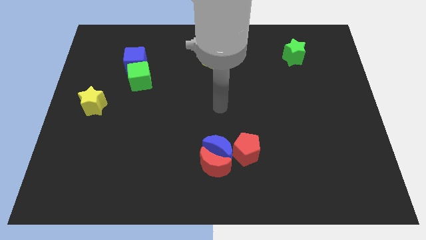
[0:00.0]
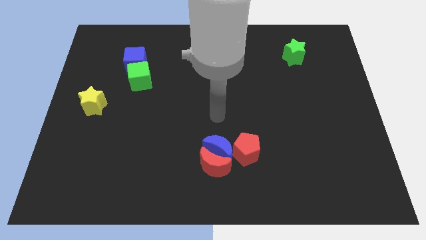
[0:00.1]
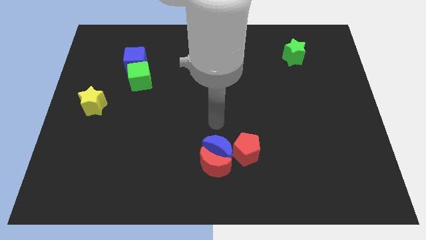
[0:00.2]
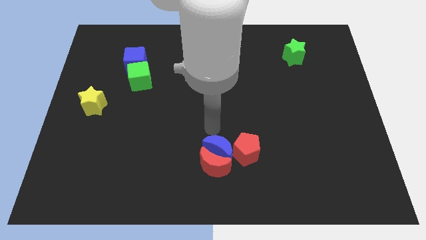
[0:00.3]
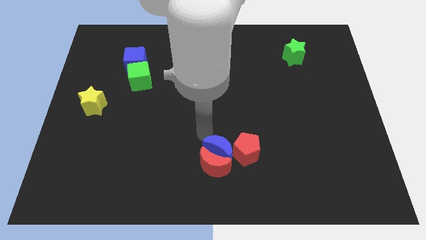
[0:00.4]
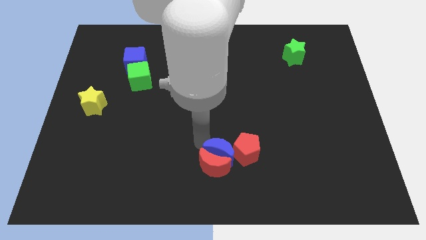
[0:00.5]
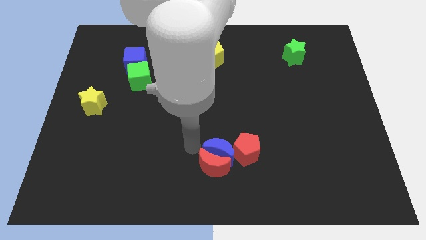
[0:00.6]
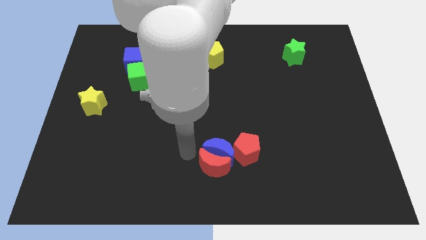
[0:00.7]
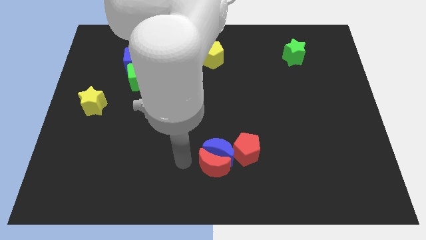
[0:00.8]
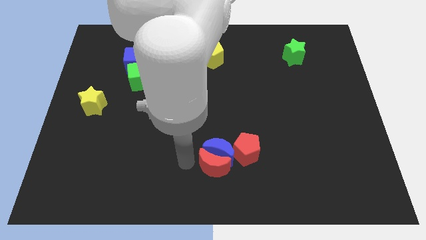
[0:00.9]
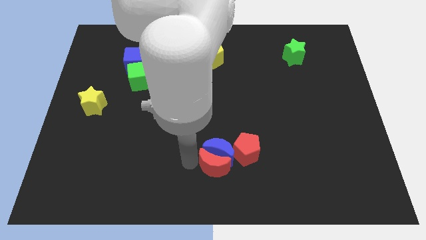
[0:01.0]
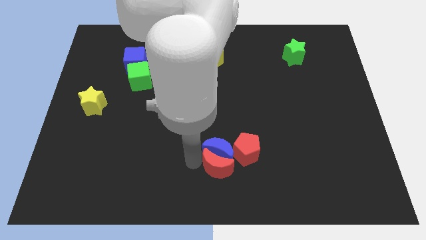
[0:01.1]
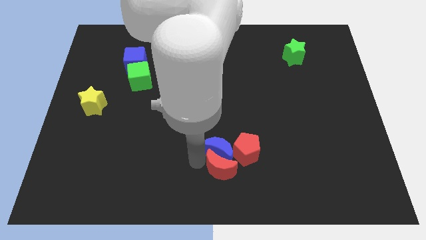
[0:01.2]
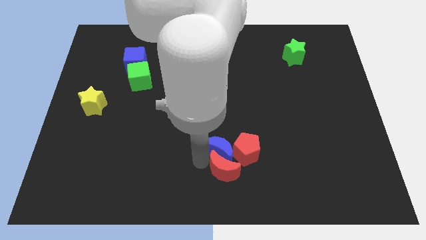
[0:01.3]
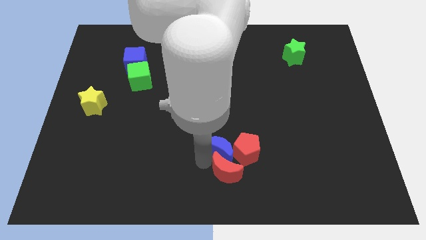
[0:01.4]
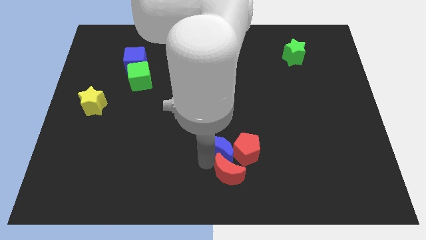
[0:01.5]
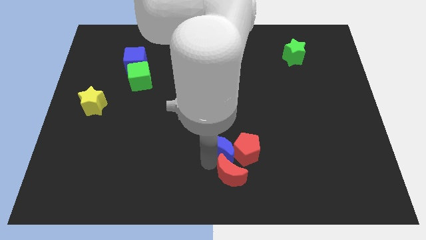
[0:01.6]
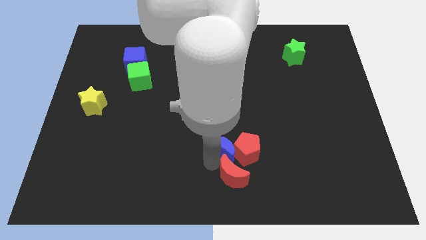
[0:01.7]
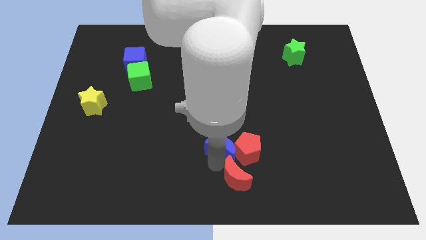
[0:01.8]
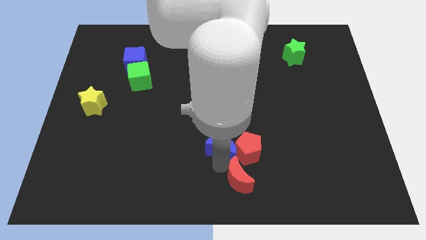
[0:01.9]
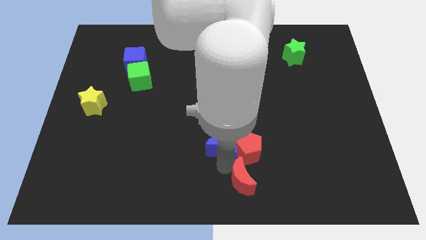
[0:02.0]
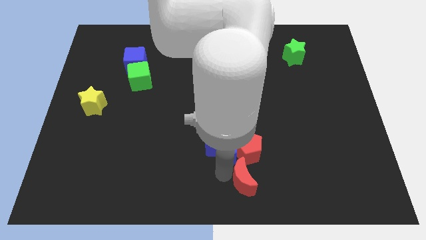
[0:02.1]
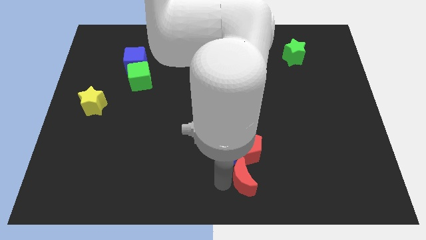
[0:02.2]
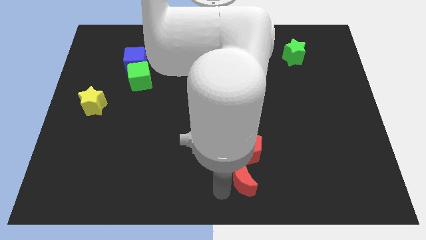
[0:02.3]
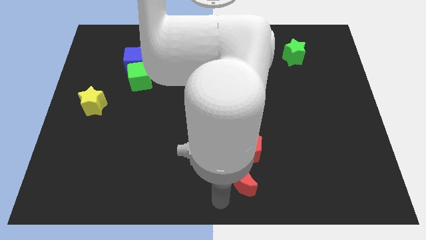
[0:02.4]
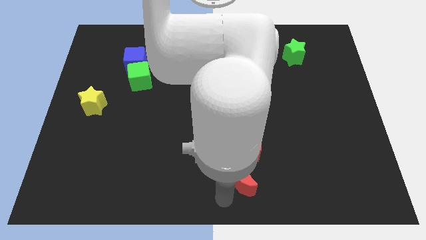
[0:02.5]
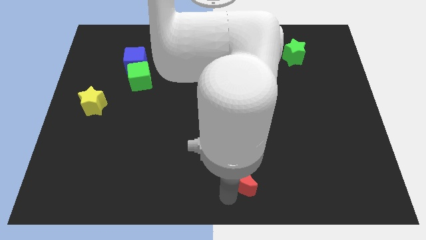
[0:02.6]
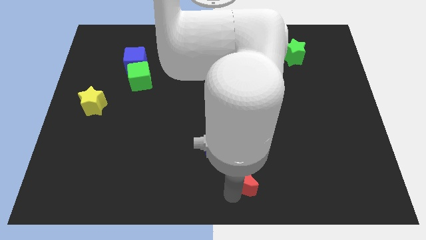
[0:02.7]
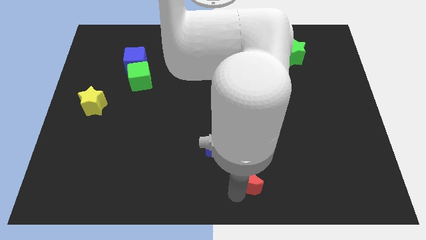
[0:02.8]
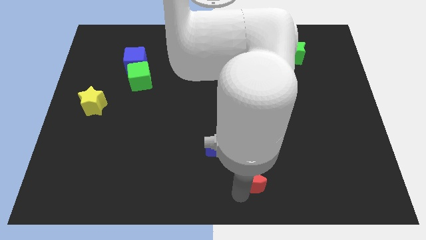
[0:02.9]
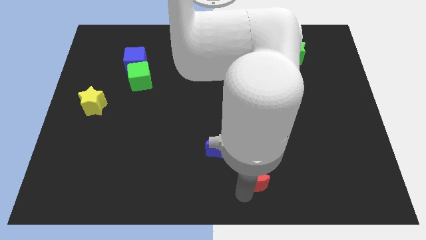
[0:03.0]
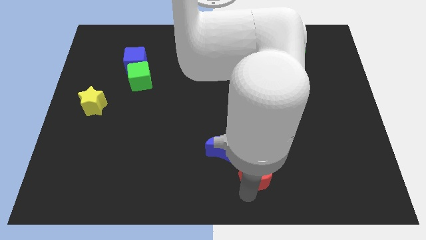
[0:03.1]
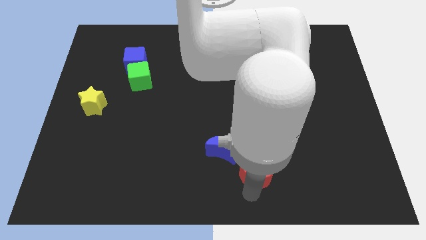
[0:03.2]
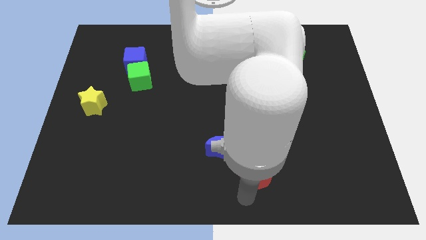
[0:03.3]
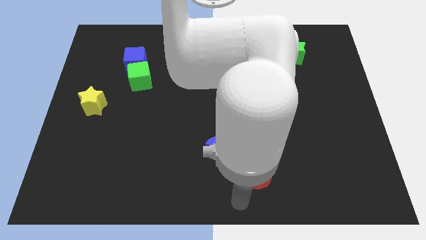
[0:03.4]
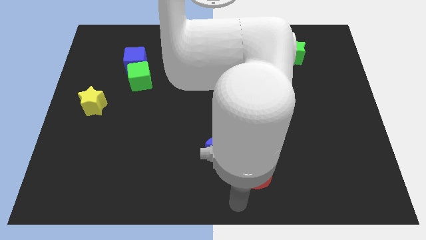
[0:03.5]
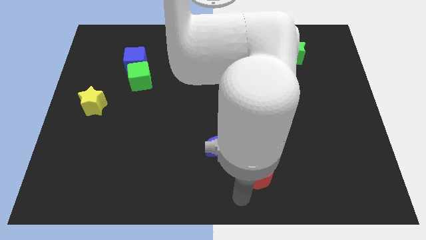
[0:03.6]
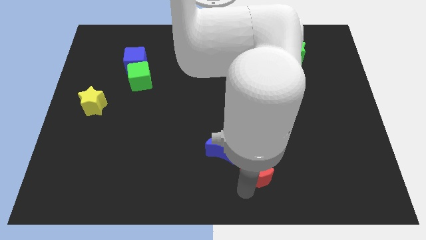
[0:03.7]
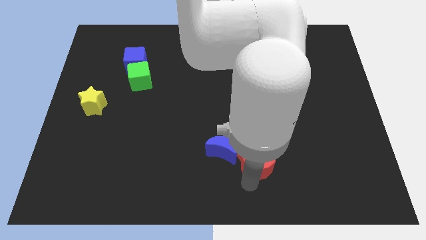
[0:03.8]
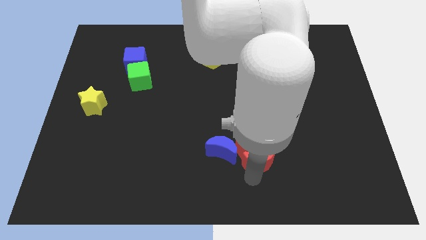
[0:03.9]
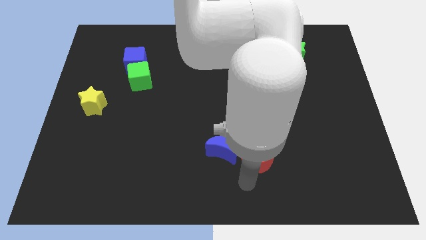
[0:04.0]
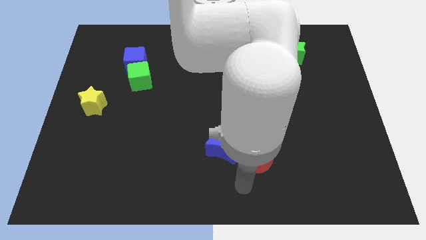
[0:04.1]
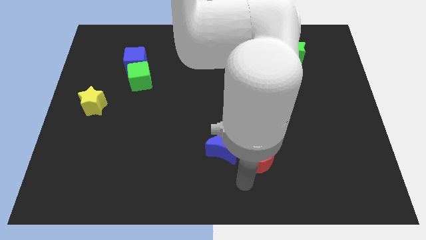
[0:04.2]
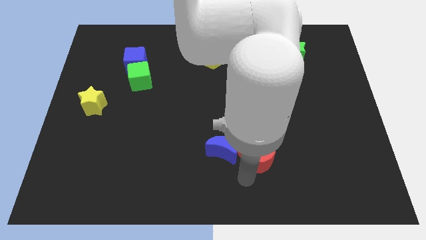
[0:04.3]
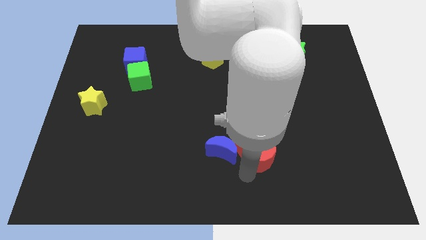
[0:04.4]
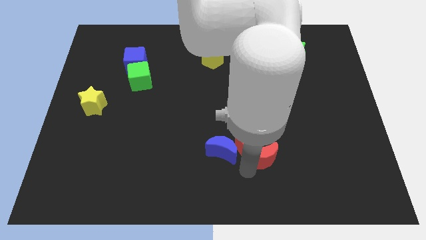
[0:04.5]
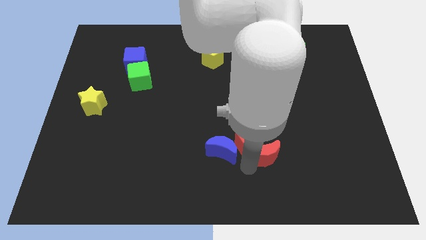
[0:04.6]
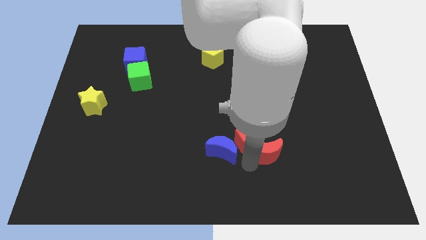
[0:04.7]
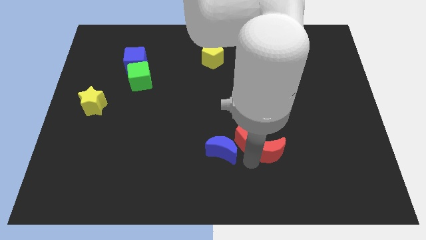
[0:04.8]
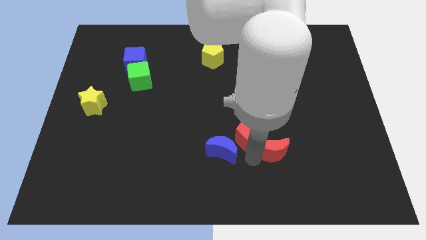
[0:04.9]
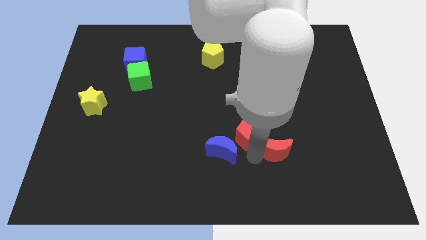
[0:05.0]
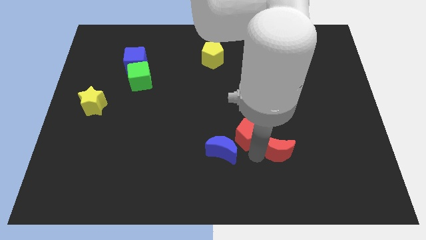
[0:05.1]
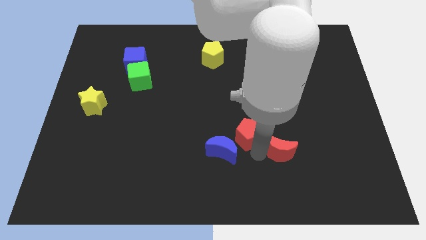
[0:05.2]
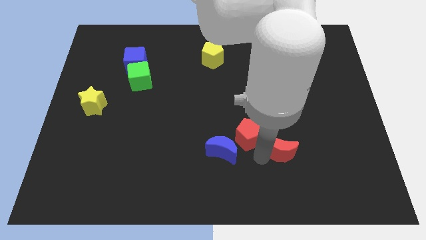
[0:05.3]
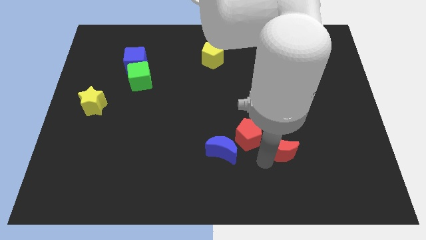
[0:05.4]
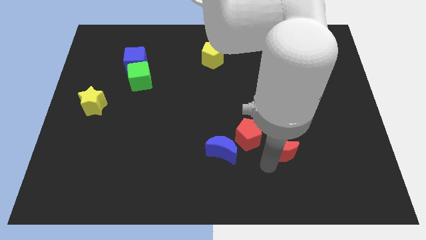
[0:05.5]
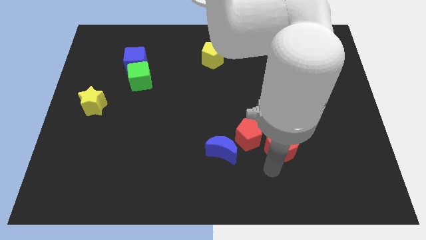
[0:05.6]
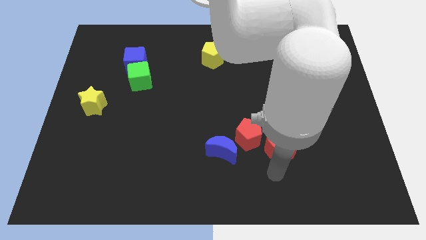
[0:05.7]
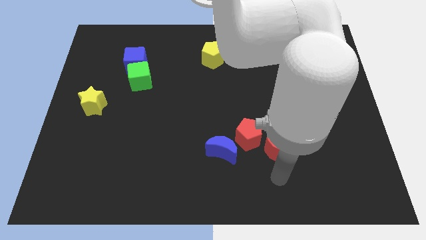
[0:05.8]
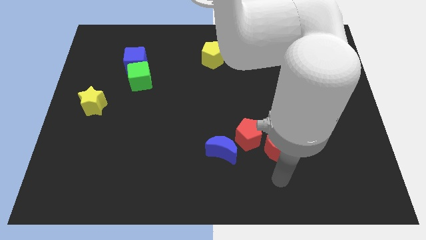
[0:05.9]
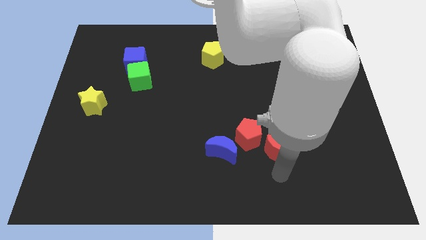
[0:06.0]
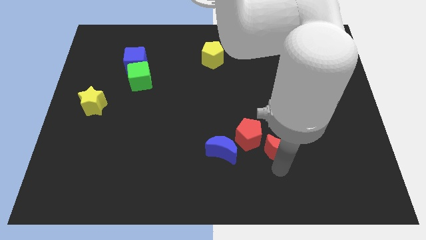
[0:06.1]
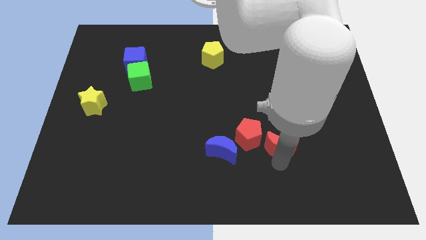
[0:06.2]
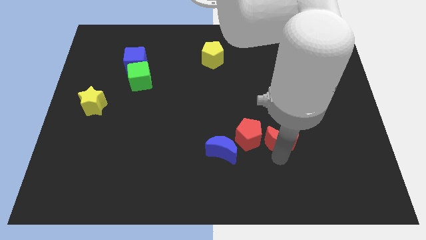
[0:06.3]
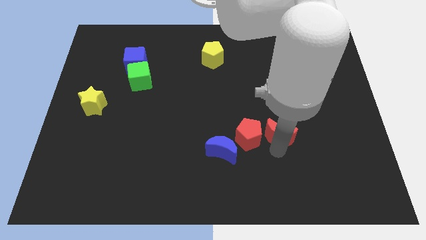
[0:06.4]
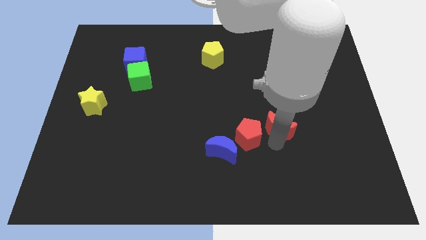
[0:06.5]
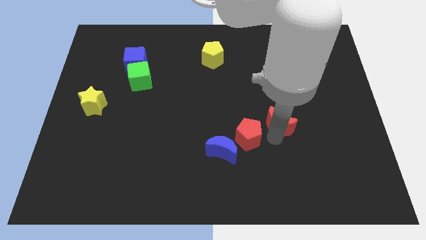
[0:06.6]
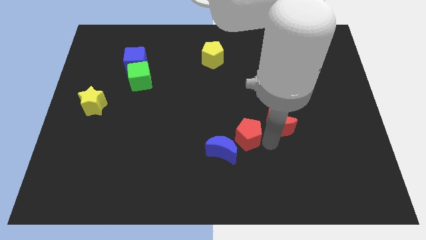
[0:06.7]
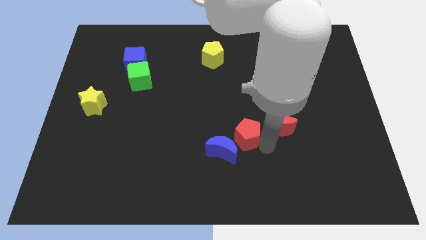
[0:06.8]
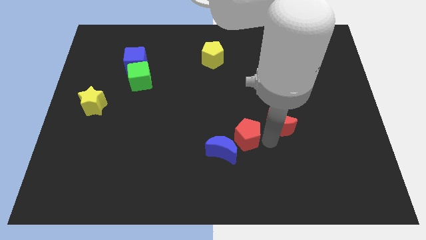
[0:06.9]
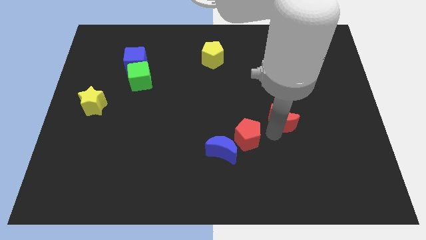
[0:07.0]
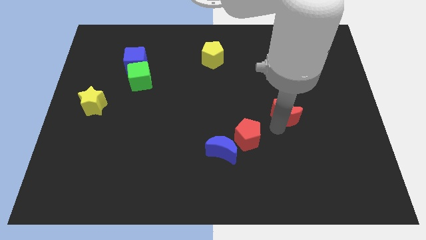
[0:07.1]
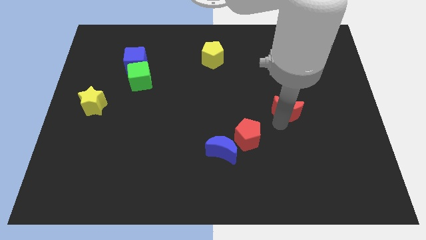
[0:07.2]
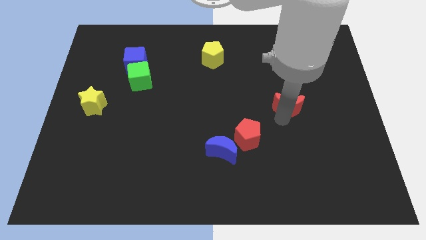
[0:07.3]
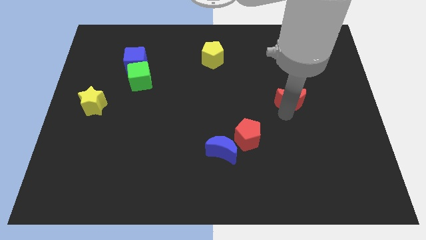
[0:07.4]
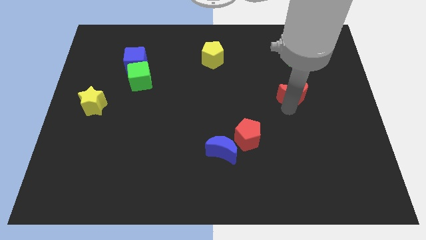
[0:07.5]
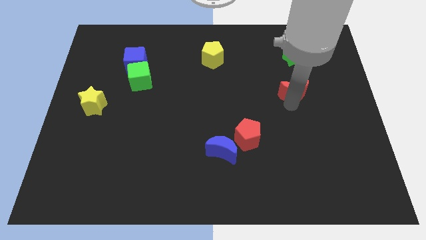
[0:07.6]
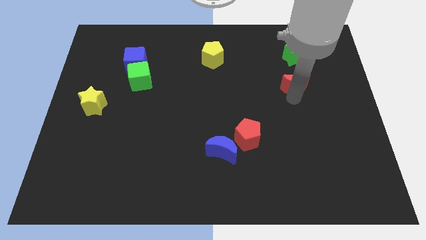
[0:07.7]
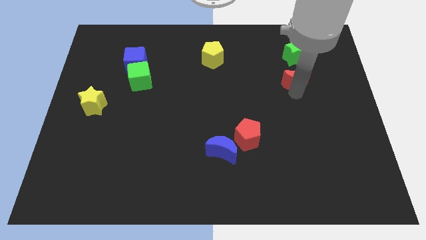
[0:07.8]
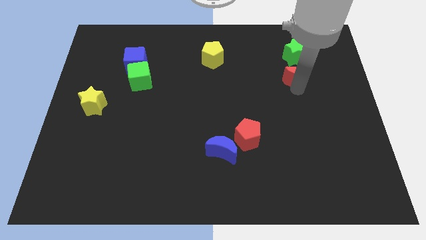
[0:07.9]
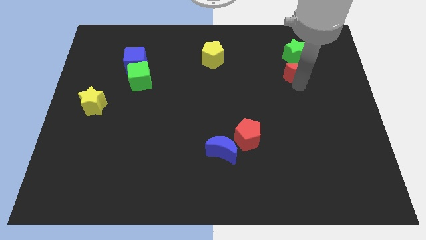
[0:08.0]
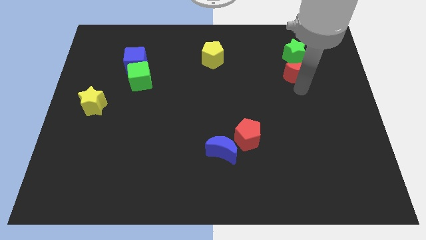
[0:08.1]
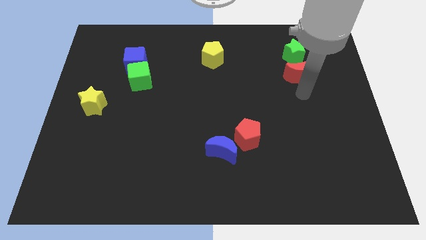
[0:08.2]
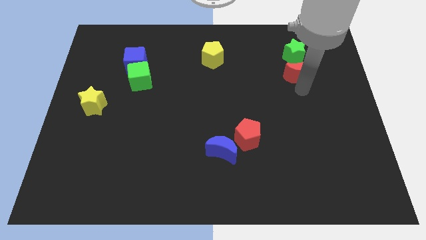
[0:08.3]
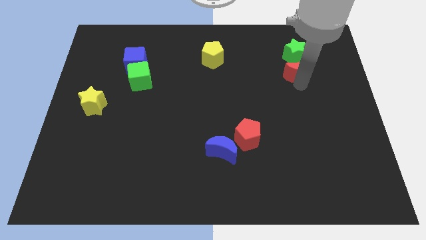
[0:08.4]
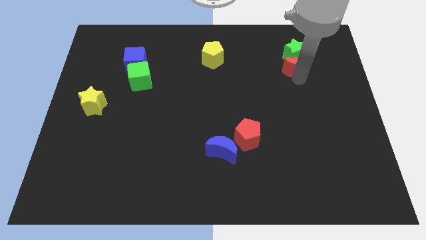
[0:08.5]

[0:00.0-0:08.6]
move the red moon close to the green star
